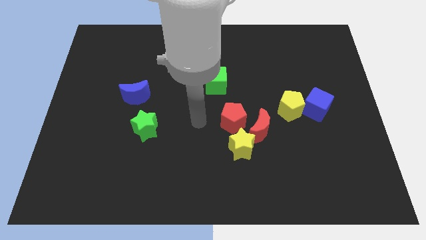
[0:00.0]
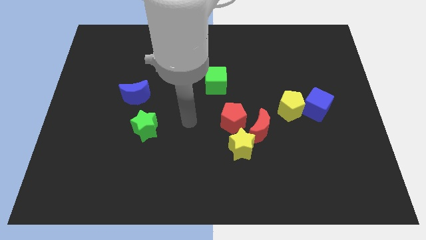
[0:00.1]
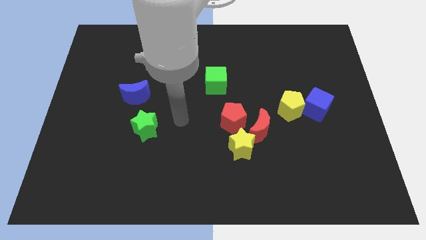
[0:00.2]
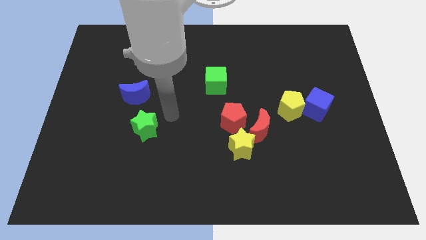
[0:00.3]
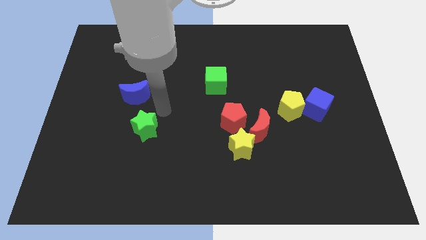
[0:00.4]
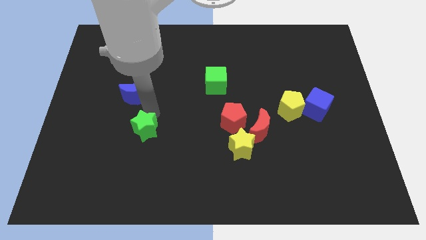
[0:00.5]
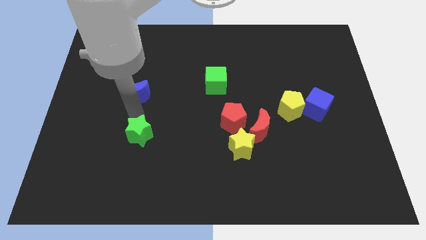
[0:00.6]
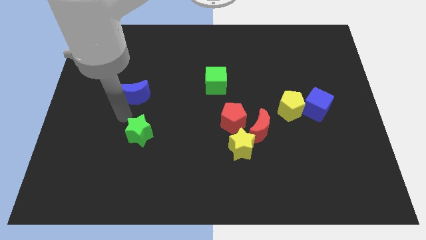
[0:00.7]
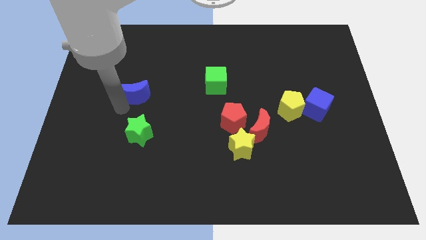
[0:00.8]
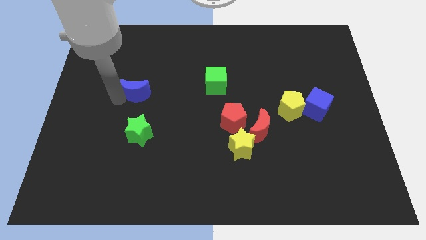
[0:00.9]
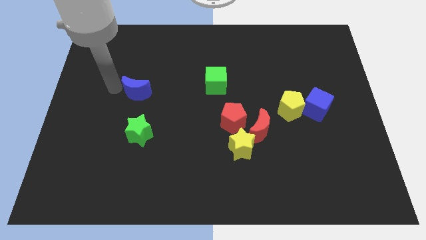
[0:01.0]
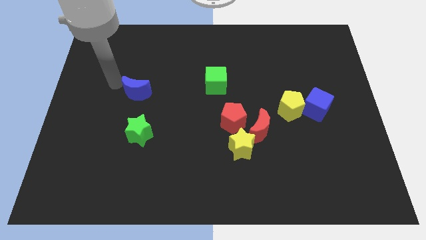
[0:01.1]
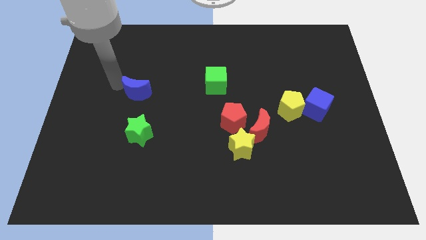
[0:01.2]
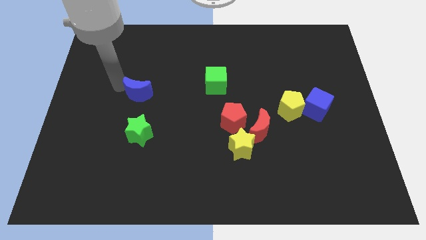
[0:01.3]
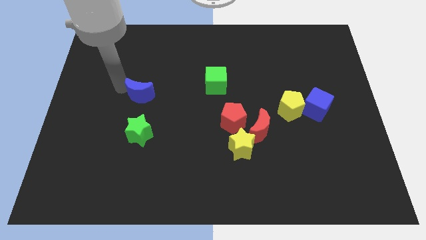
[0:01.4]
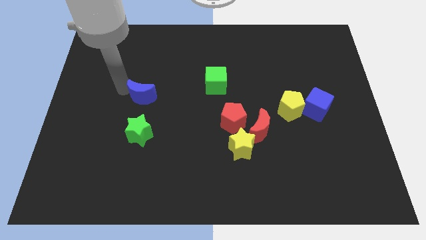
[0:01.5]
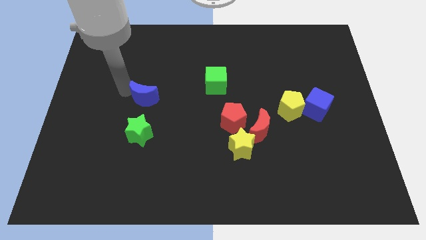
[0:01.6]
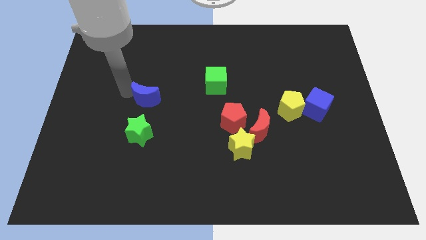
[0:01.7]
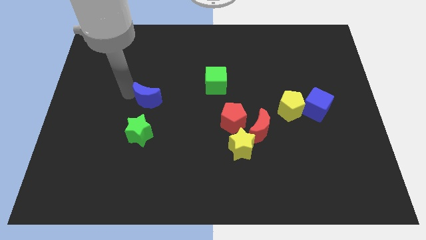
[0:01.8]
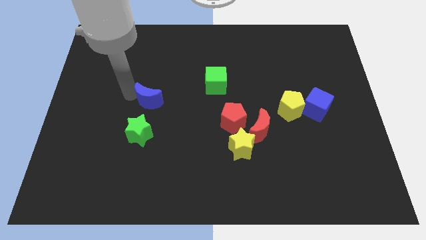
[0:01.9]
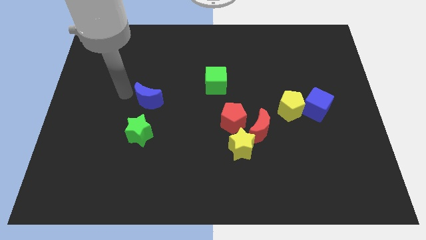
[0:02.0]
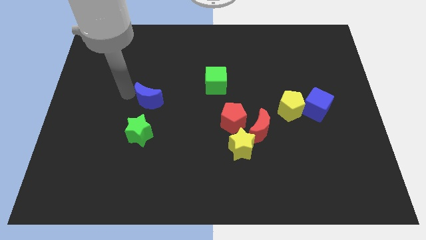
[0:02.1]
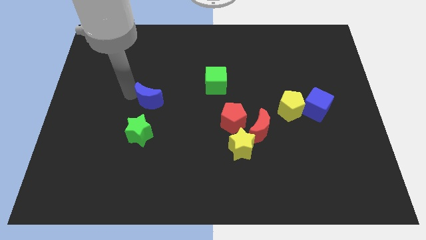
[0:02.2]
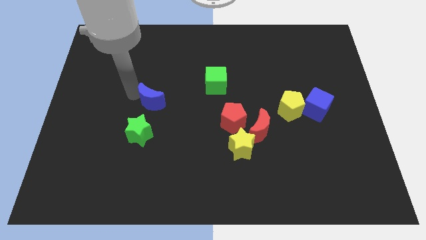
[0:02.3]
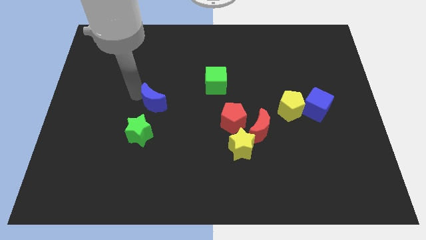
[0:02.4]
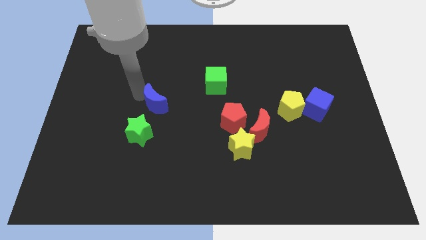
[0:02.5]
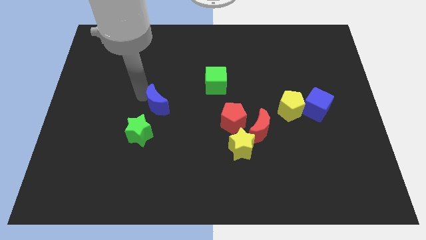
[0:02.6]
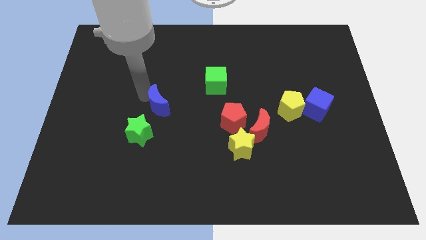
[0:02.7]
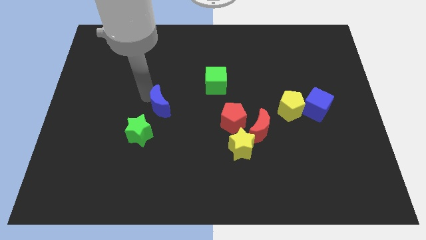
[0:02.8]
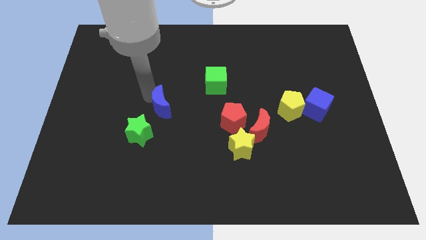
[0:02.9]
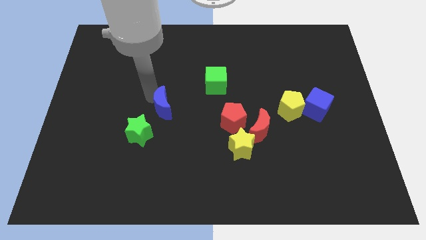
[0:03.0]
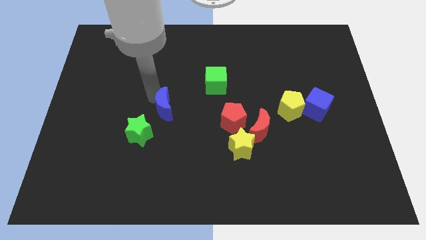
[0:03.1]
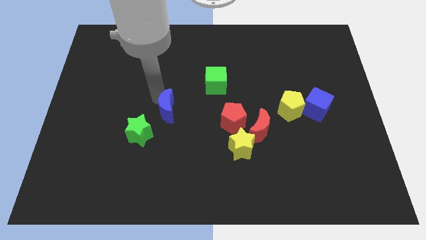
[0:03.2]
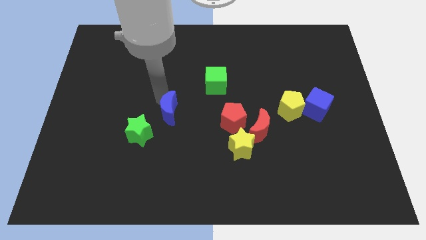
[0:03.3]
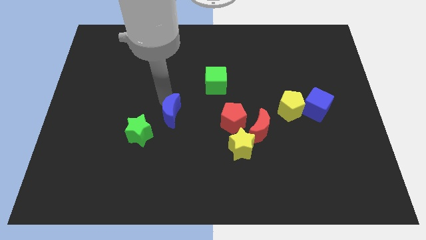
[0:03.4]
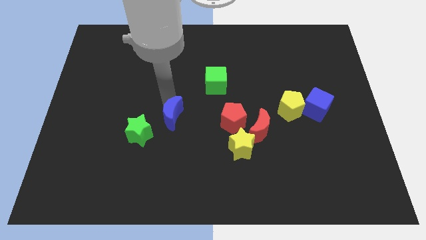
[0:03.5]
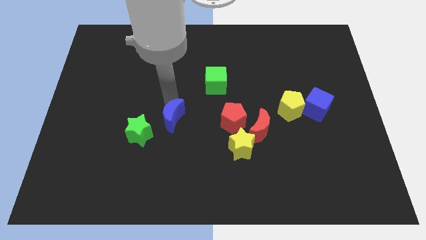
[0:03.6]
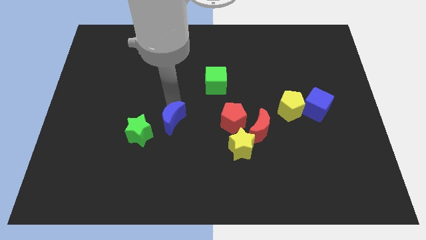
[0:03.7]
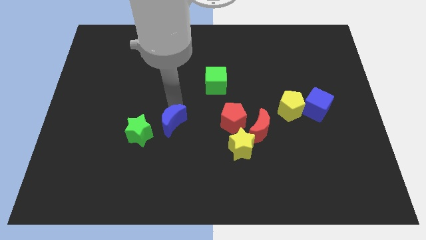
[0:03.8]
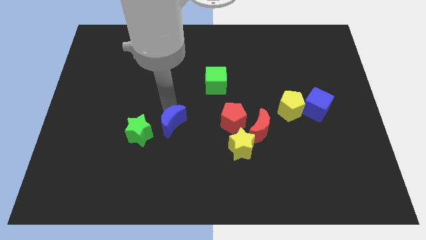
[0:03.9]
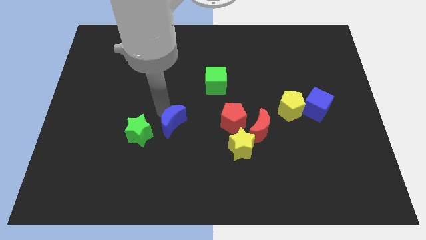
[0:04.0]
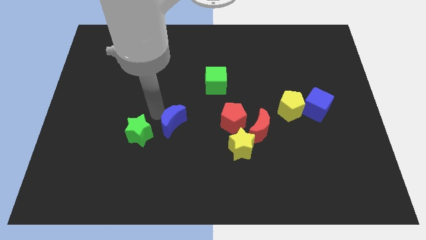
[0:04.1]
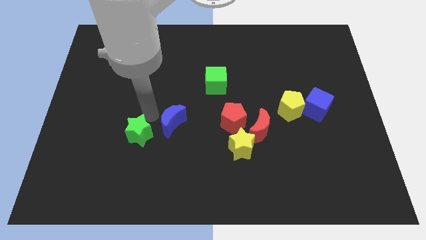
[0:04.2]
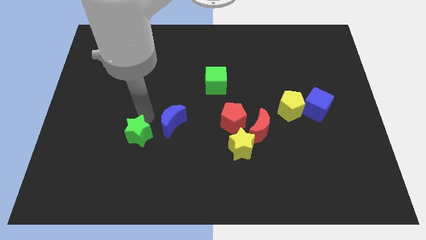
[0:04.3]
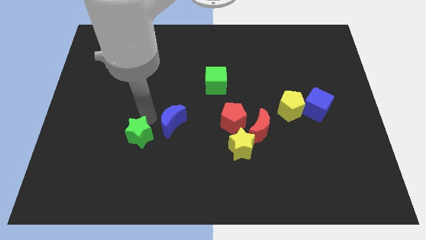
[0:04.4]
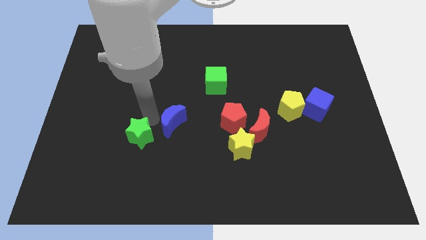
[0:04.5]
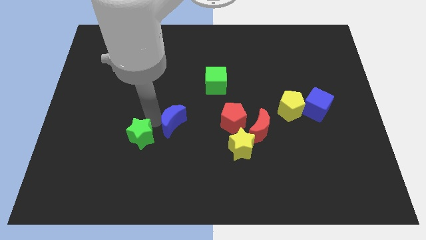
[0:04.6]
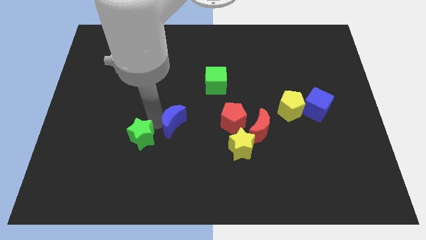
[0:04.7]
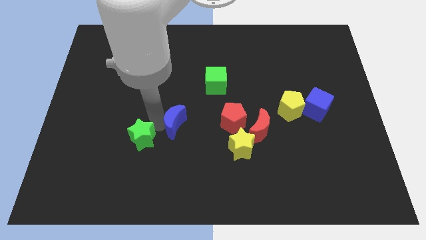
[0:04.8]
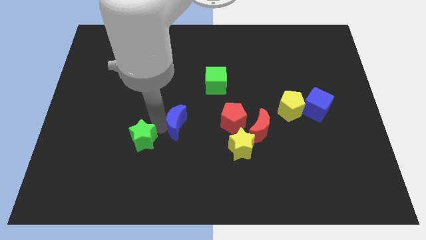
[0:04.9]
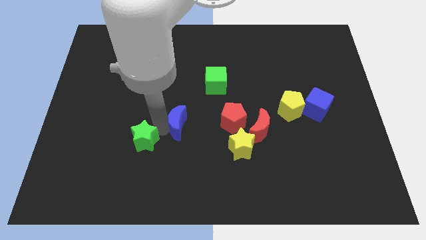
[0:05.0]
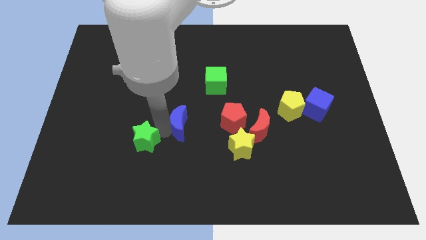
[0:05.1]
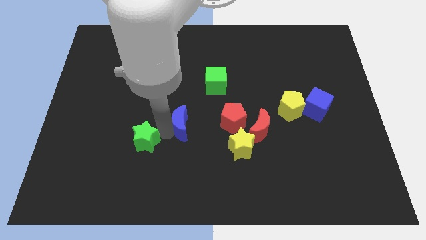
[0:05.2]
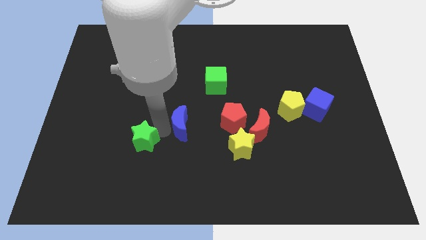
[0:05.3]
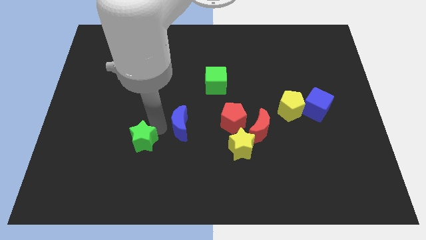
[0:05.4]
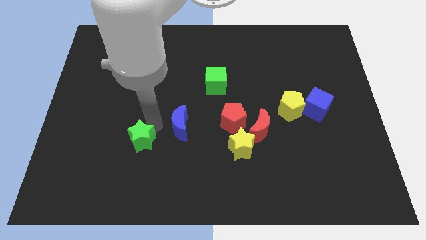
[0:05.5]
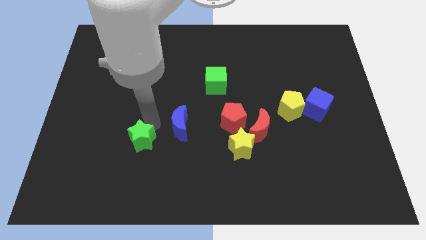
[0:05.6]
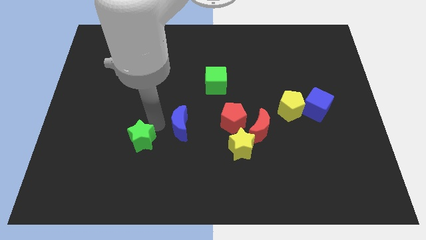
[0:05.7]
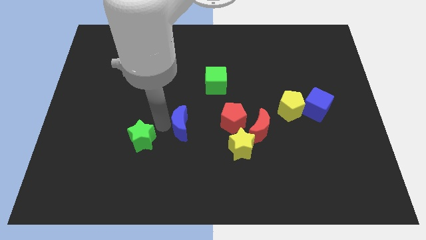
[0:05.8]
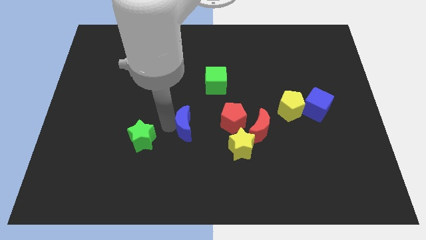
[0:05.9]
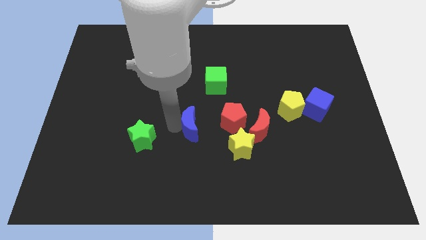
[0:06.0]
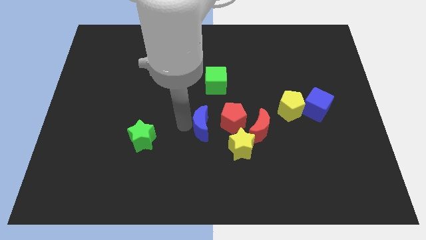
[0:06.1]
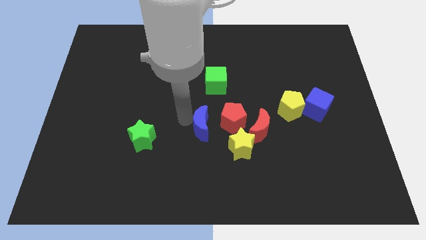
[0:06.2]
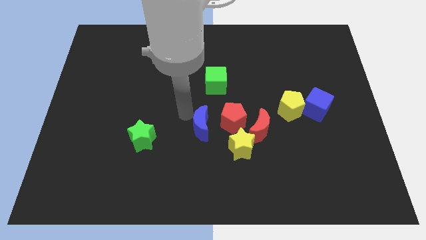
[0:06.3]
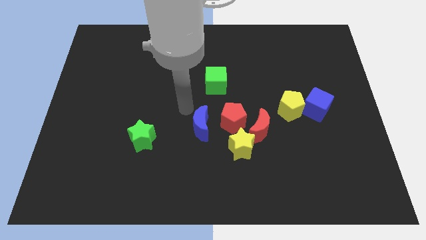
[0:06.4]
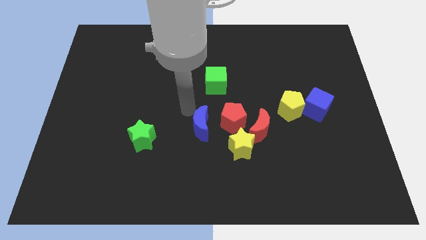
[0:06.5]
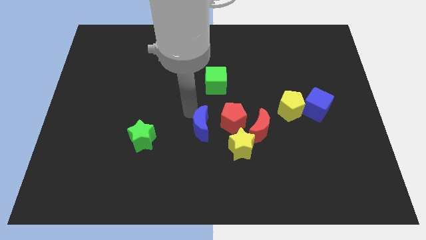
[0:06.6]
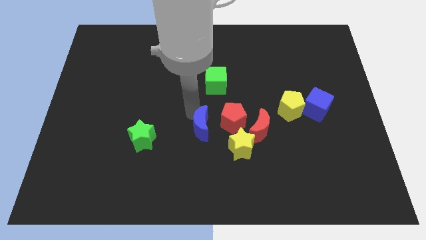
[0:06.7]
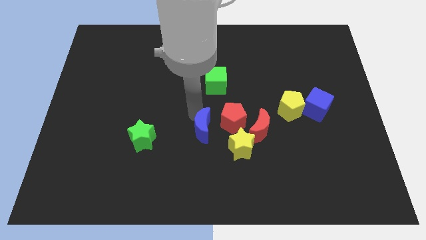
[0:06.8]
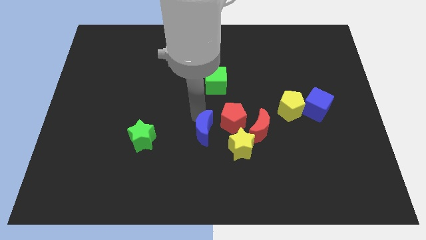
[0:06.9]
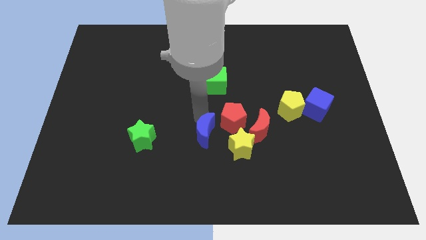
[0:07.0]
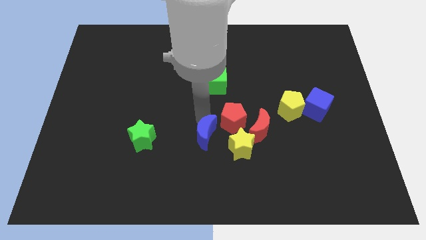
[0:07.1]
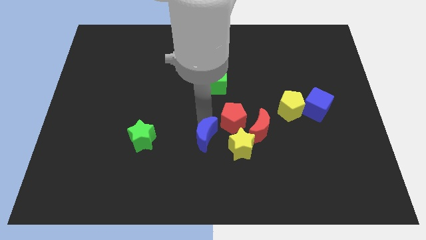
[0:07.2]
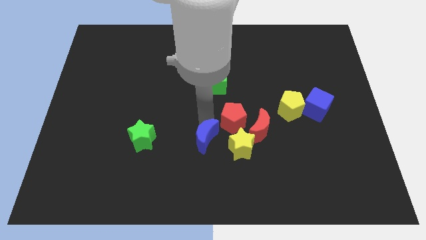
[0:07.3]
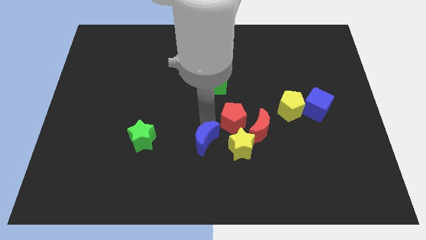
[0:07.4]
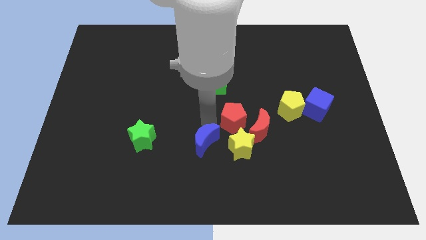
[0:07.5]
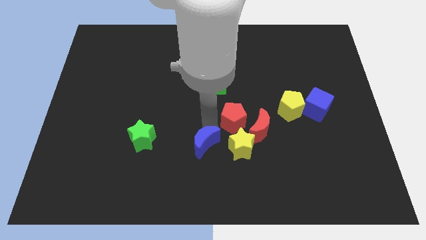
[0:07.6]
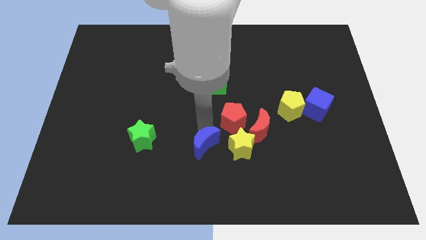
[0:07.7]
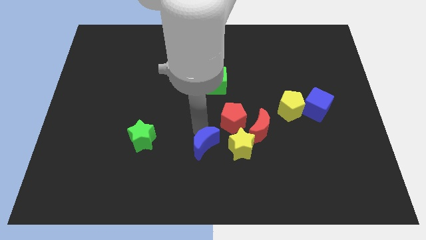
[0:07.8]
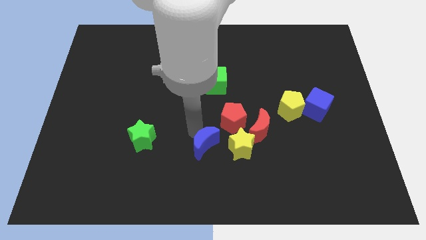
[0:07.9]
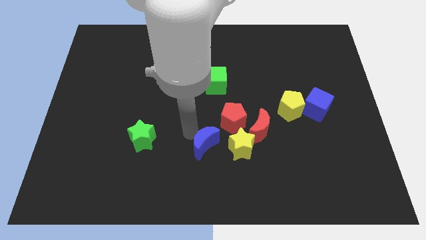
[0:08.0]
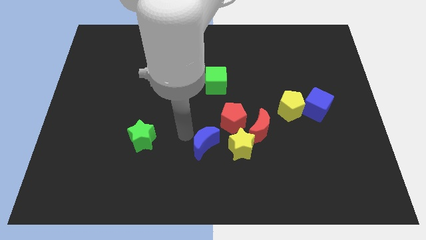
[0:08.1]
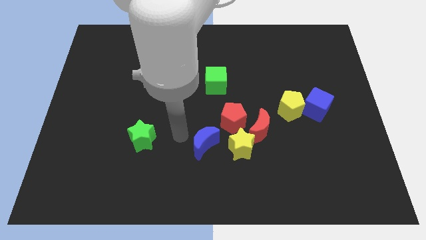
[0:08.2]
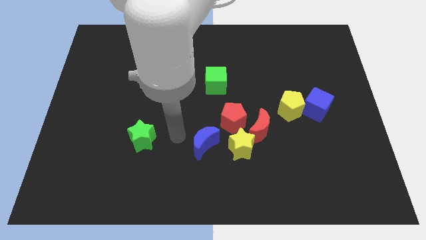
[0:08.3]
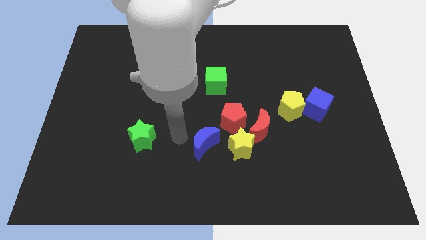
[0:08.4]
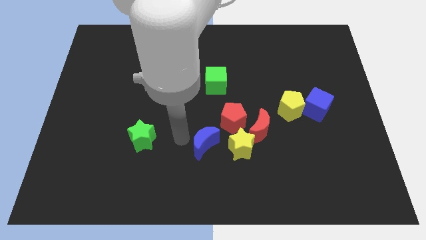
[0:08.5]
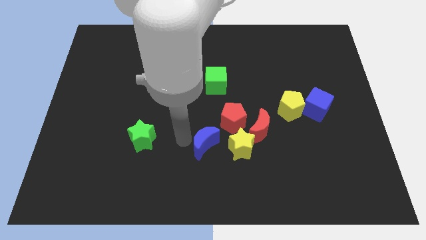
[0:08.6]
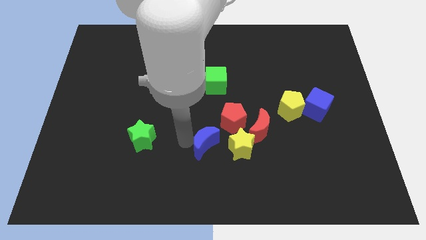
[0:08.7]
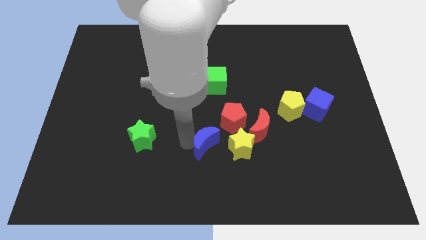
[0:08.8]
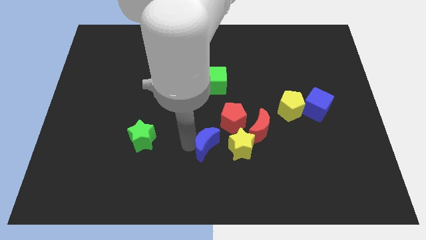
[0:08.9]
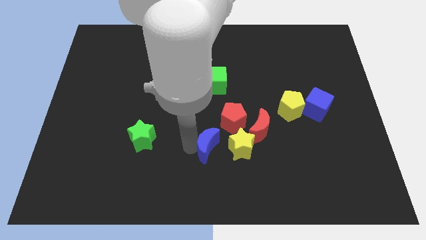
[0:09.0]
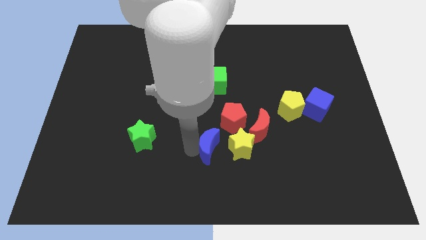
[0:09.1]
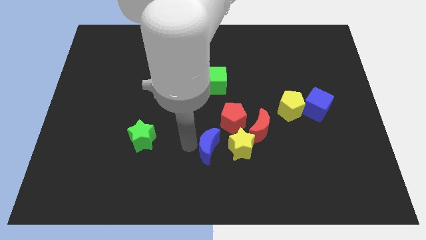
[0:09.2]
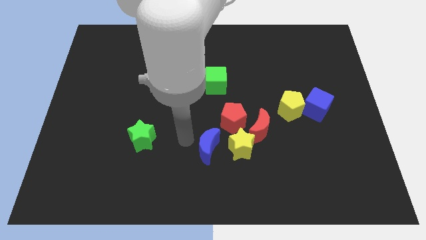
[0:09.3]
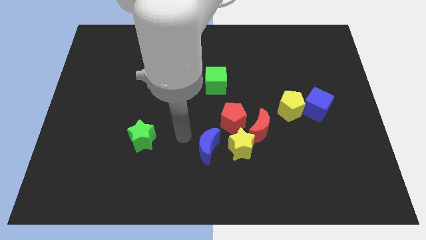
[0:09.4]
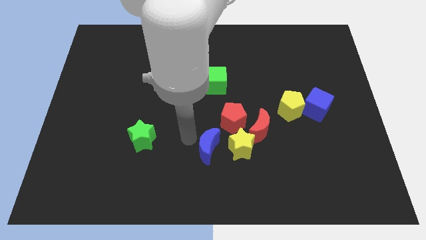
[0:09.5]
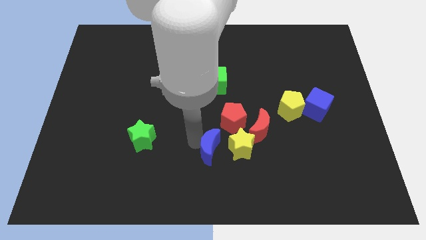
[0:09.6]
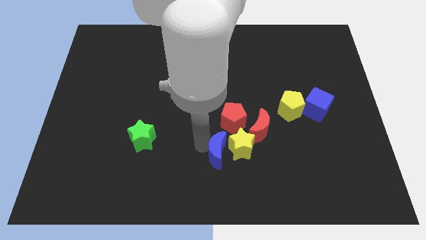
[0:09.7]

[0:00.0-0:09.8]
move the blue moon below the red pentagon
